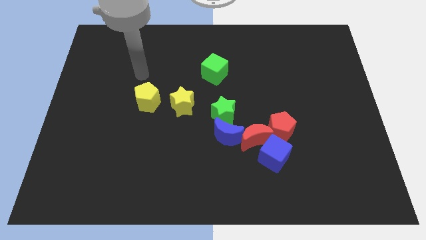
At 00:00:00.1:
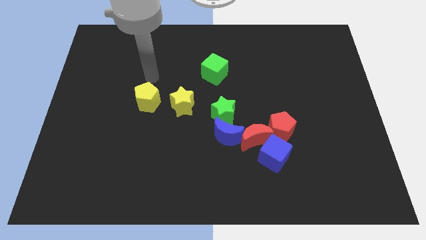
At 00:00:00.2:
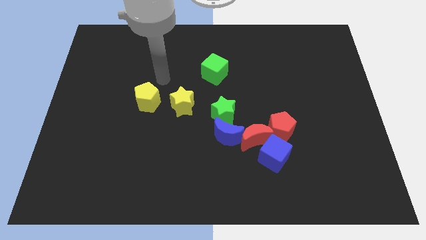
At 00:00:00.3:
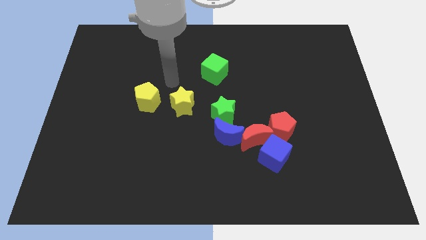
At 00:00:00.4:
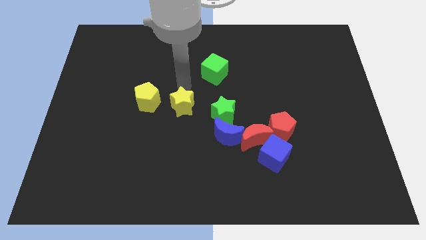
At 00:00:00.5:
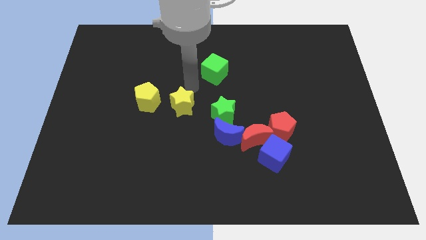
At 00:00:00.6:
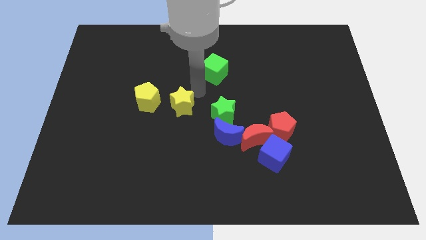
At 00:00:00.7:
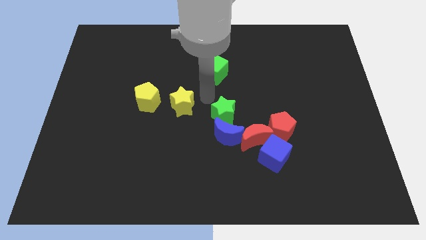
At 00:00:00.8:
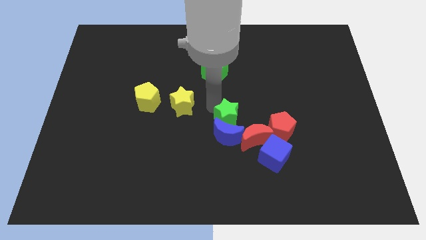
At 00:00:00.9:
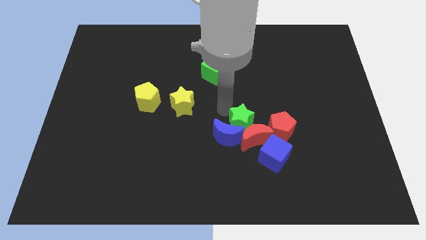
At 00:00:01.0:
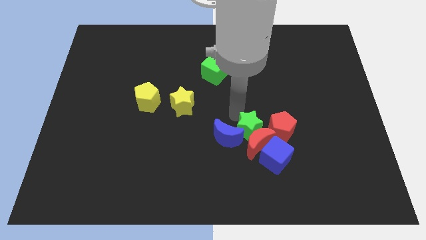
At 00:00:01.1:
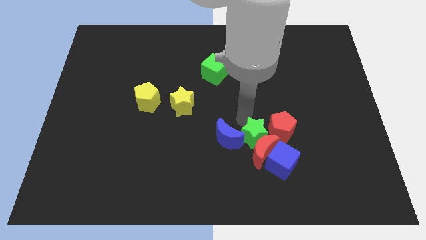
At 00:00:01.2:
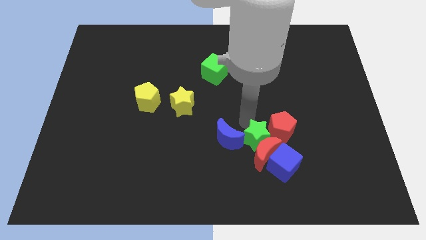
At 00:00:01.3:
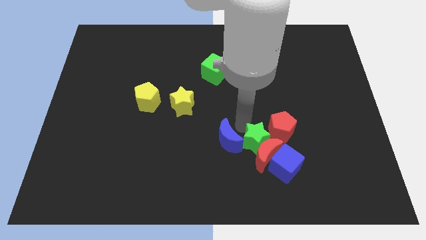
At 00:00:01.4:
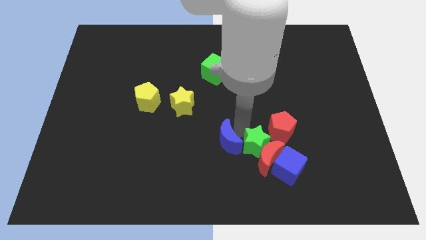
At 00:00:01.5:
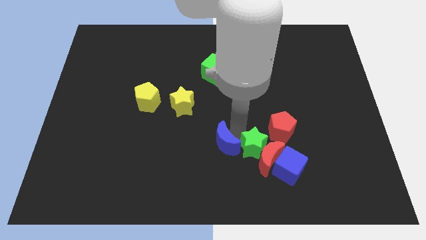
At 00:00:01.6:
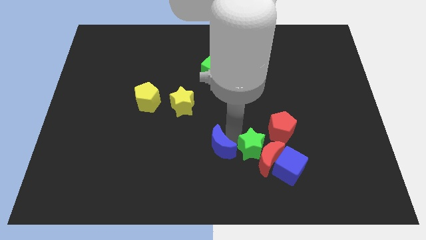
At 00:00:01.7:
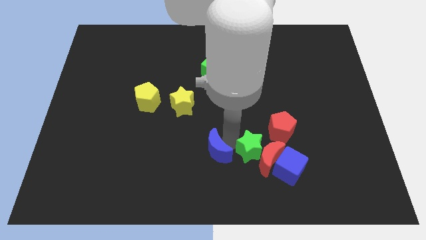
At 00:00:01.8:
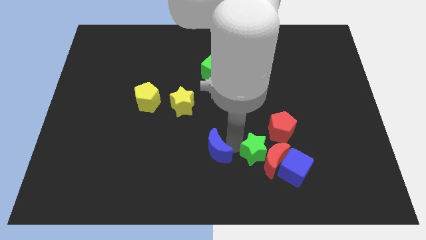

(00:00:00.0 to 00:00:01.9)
move the blue moon away from the green star and red moon

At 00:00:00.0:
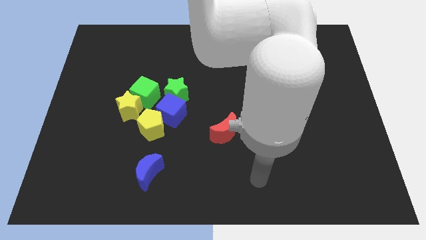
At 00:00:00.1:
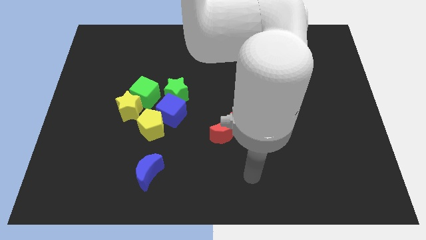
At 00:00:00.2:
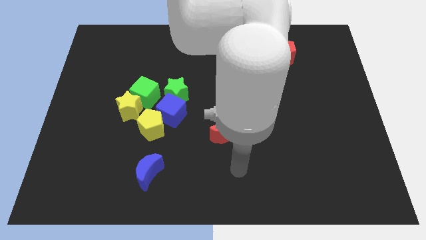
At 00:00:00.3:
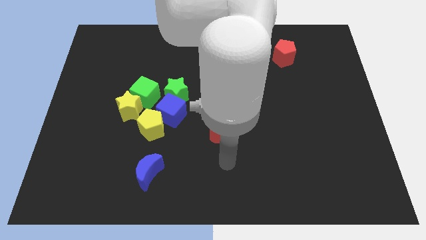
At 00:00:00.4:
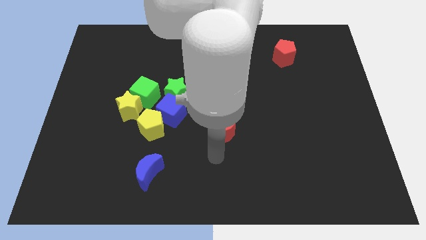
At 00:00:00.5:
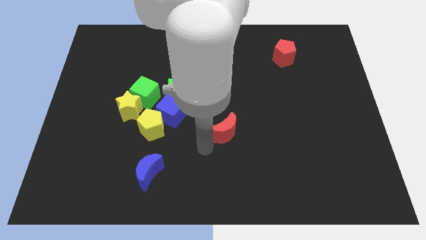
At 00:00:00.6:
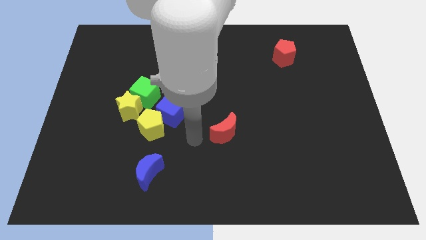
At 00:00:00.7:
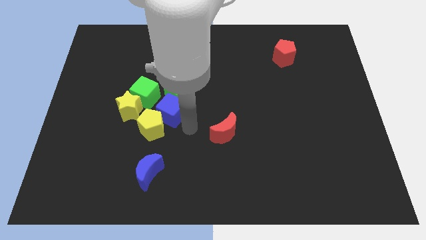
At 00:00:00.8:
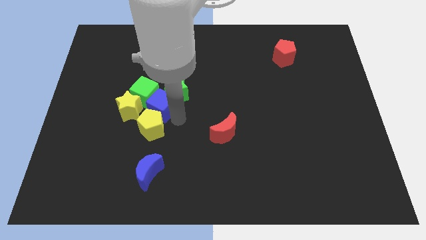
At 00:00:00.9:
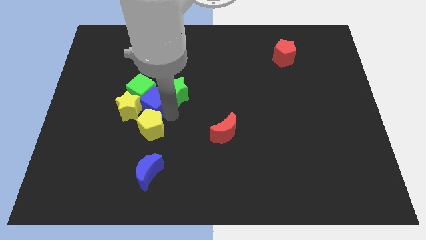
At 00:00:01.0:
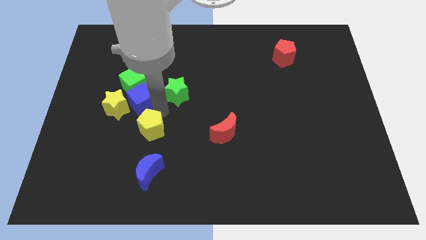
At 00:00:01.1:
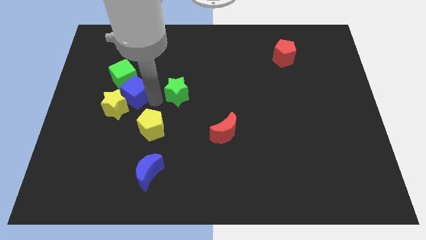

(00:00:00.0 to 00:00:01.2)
separate the green star from the blue cube and green cube

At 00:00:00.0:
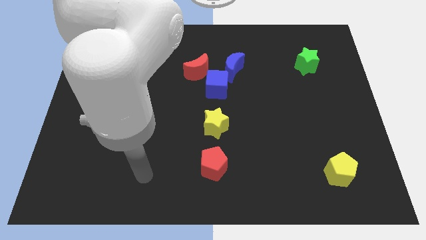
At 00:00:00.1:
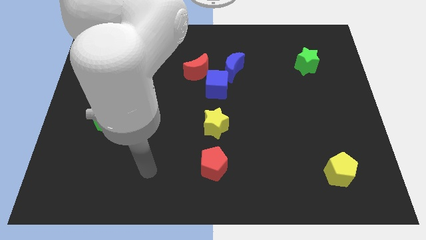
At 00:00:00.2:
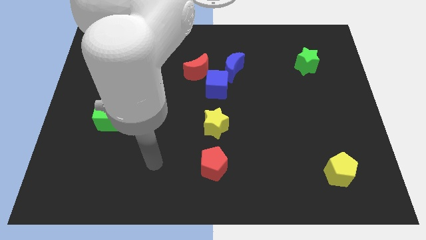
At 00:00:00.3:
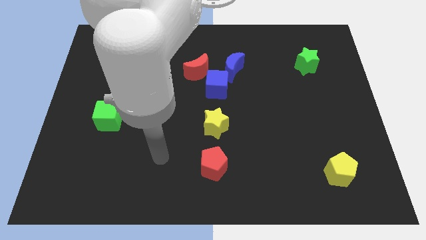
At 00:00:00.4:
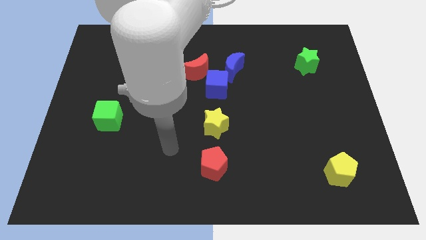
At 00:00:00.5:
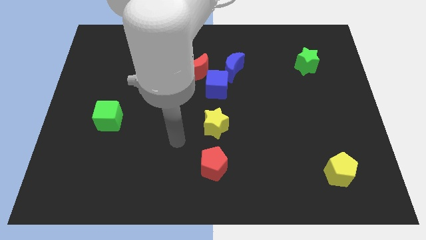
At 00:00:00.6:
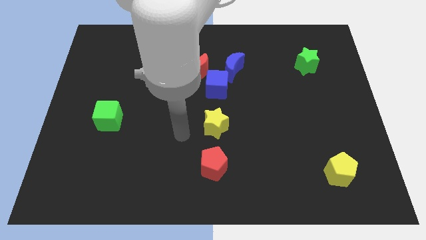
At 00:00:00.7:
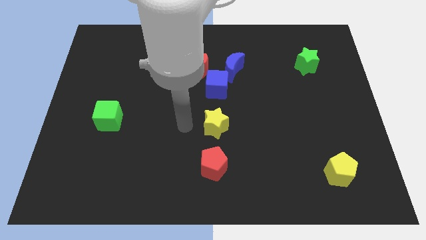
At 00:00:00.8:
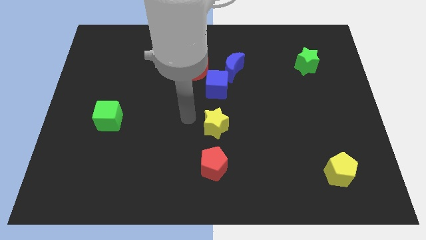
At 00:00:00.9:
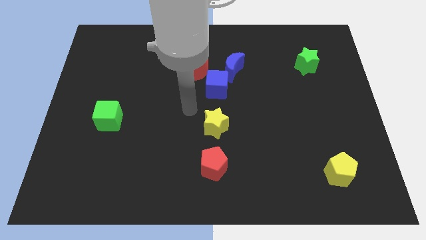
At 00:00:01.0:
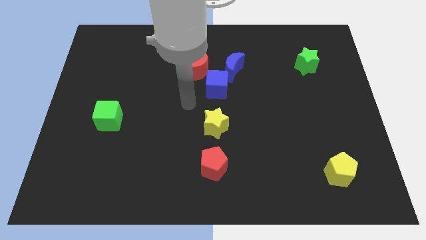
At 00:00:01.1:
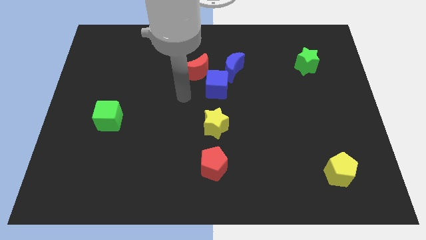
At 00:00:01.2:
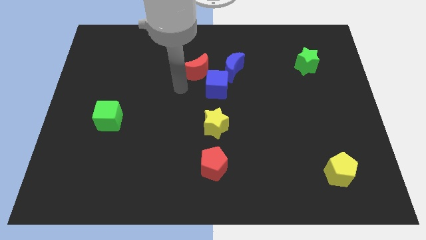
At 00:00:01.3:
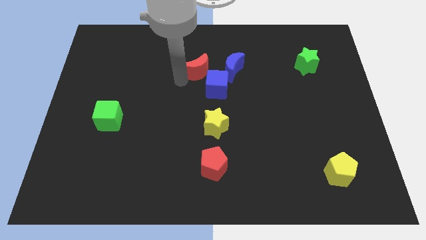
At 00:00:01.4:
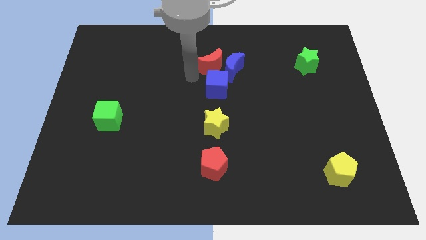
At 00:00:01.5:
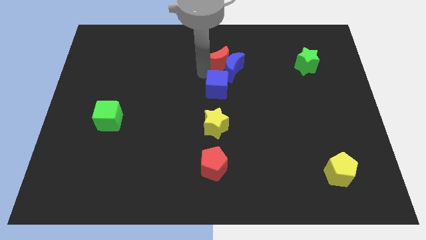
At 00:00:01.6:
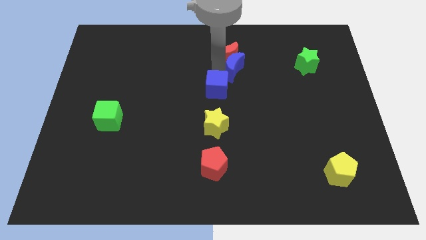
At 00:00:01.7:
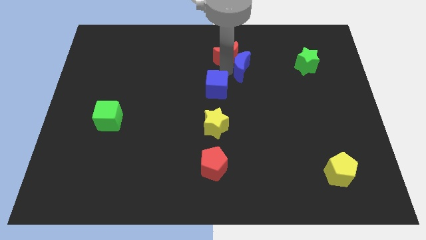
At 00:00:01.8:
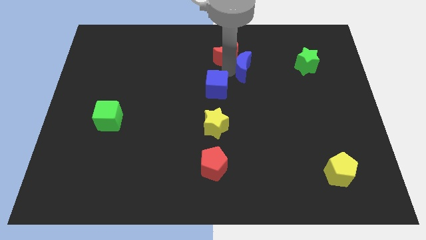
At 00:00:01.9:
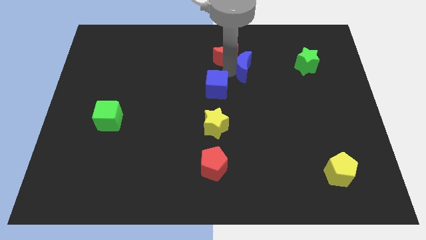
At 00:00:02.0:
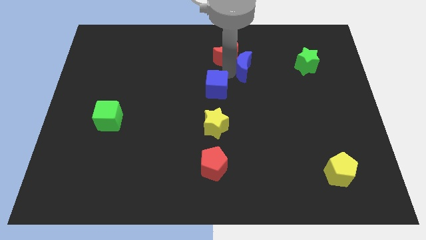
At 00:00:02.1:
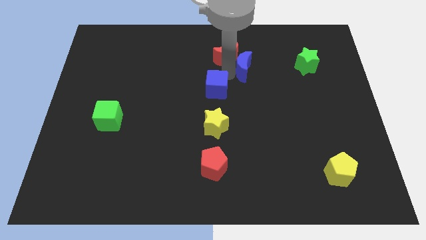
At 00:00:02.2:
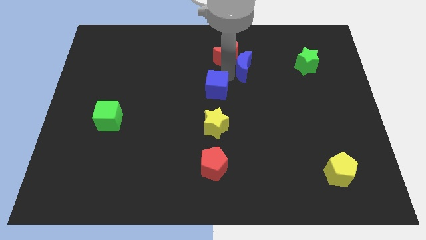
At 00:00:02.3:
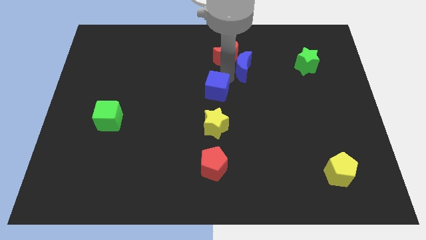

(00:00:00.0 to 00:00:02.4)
pull the blue cube apart from the red moon and blue moon

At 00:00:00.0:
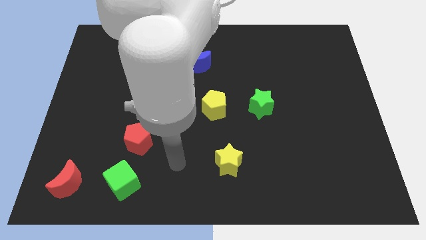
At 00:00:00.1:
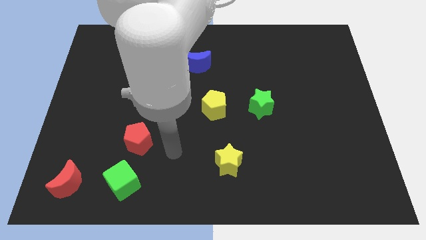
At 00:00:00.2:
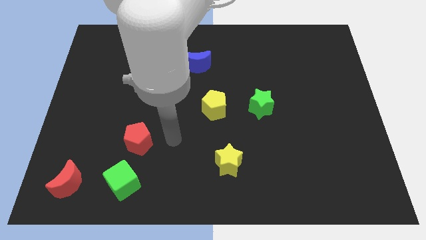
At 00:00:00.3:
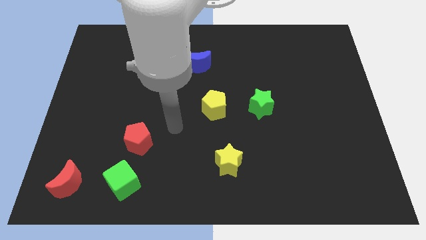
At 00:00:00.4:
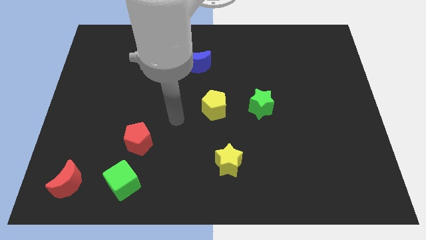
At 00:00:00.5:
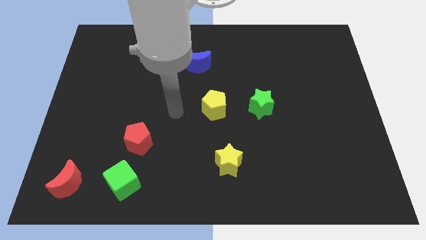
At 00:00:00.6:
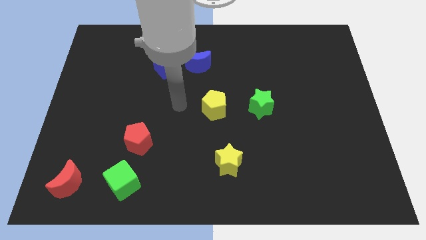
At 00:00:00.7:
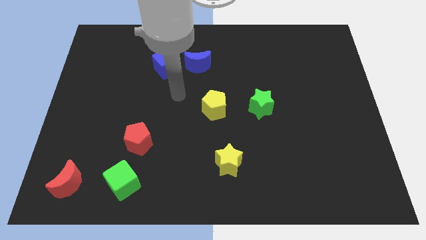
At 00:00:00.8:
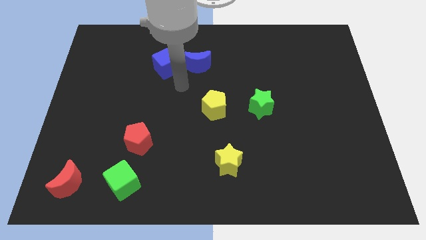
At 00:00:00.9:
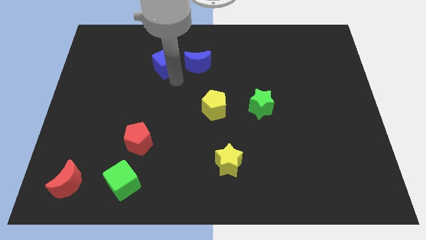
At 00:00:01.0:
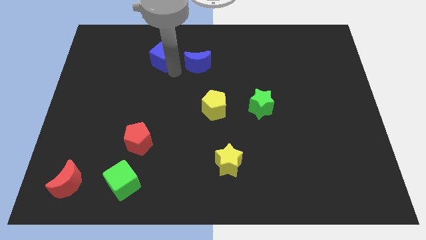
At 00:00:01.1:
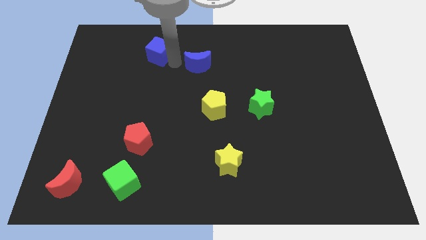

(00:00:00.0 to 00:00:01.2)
separate the blue moon from the blue cube

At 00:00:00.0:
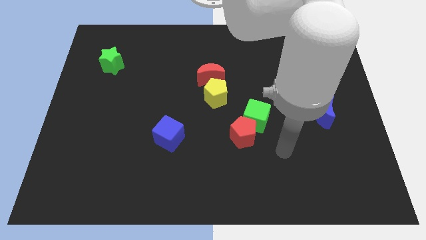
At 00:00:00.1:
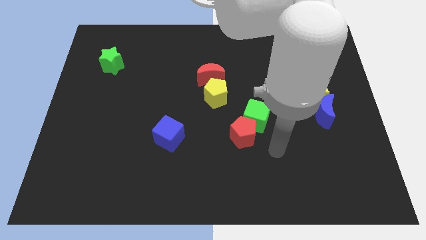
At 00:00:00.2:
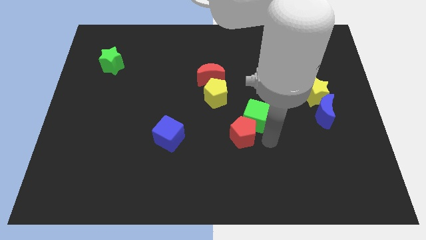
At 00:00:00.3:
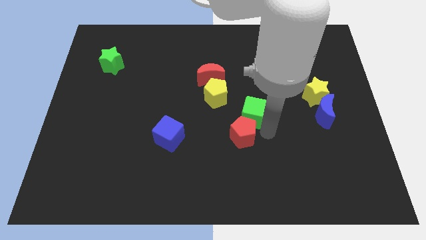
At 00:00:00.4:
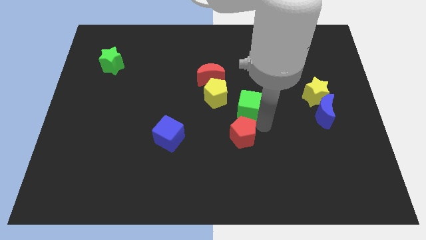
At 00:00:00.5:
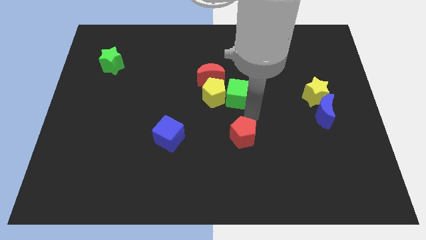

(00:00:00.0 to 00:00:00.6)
move the red pentagon away from the green cube

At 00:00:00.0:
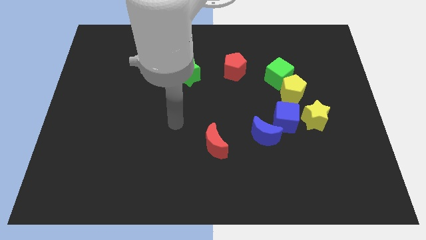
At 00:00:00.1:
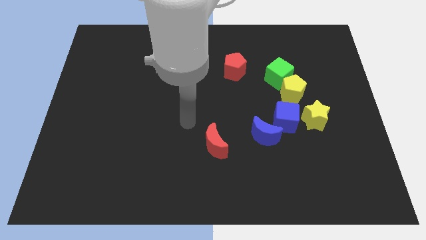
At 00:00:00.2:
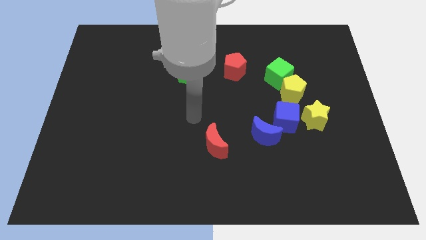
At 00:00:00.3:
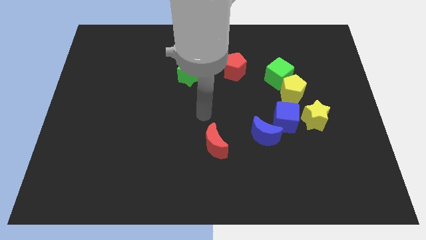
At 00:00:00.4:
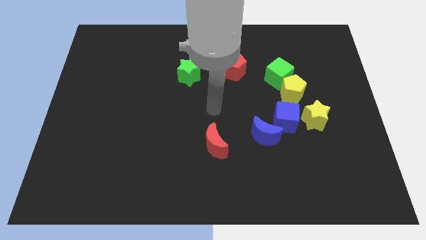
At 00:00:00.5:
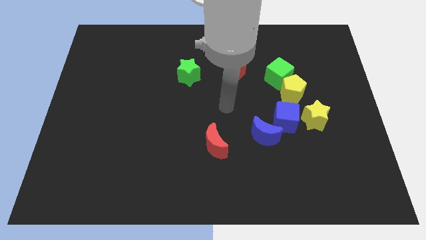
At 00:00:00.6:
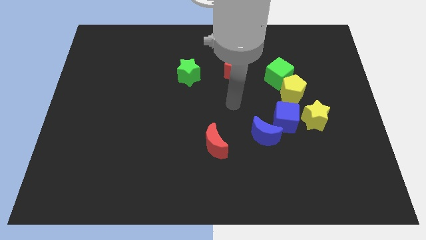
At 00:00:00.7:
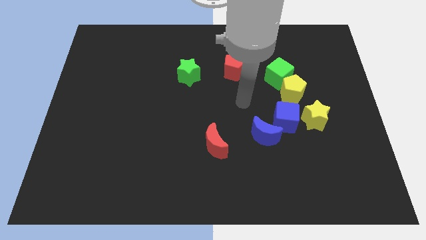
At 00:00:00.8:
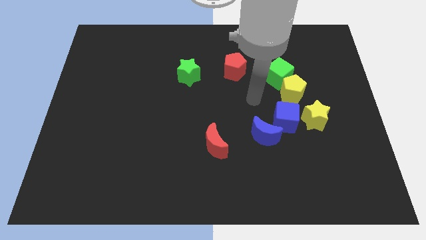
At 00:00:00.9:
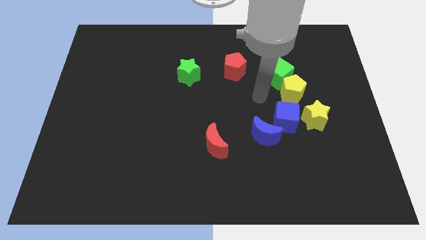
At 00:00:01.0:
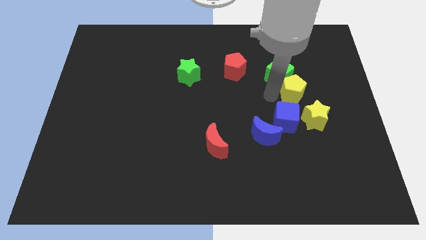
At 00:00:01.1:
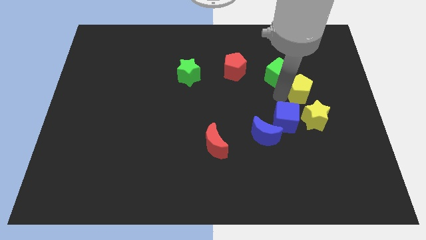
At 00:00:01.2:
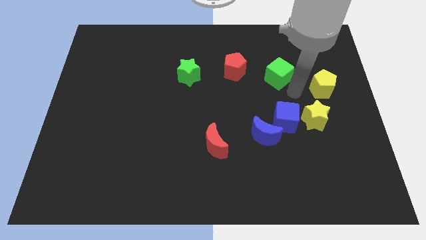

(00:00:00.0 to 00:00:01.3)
move the green cube away from the yellow pentagon

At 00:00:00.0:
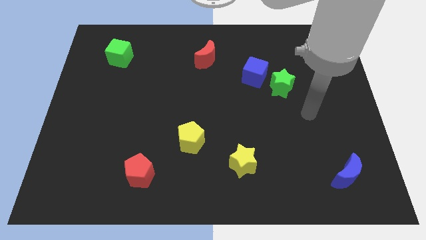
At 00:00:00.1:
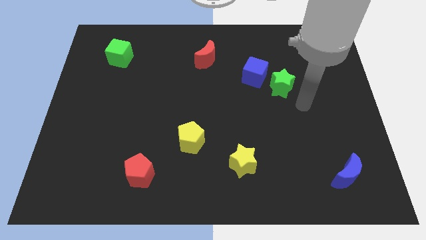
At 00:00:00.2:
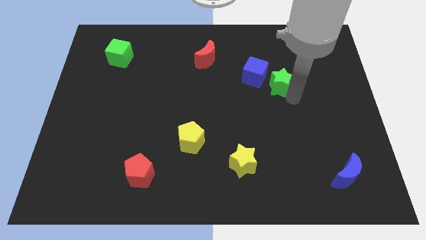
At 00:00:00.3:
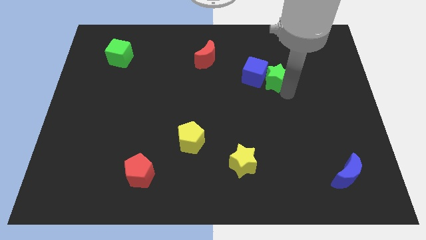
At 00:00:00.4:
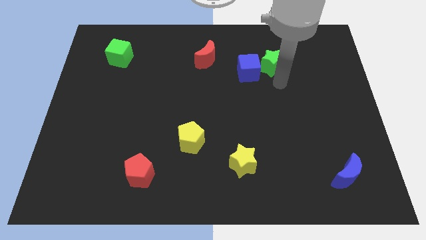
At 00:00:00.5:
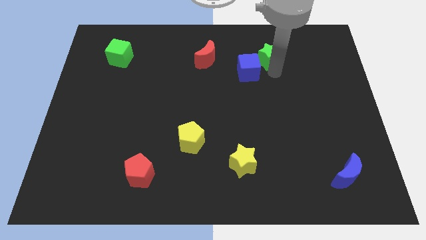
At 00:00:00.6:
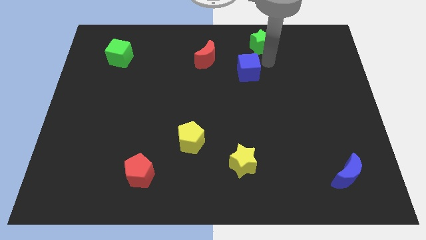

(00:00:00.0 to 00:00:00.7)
pull the blue cube apart from the green star
